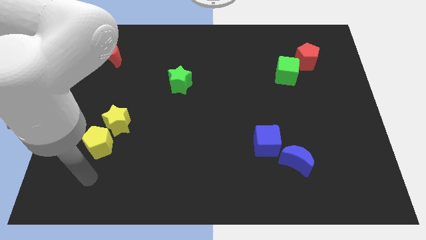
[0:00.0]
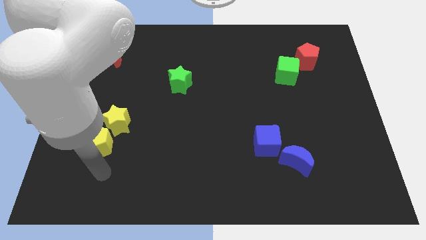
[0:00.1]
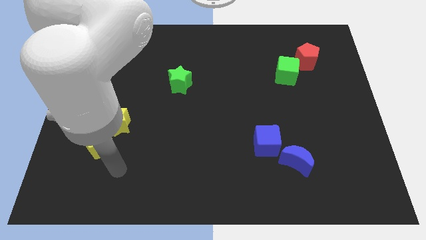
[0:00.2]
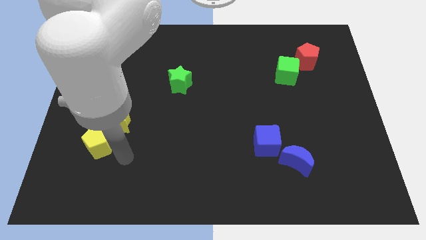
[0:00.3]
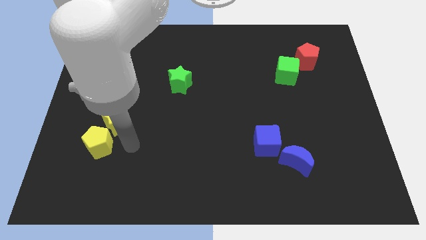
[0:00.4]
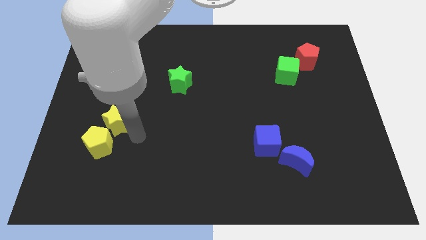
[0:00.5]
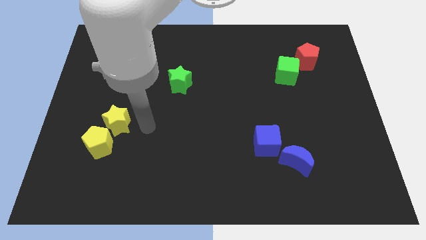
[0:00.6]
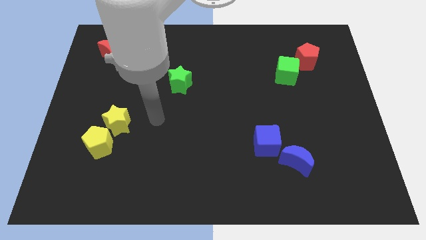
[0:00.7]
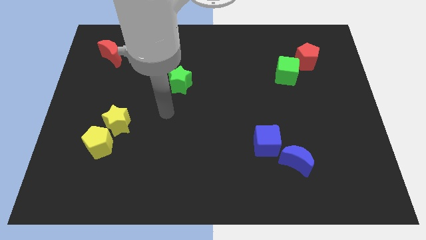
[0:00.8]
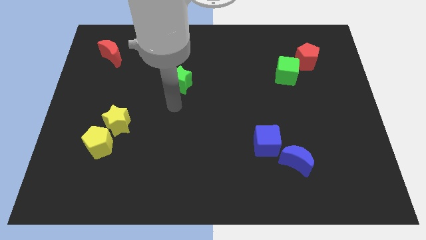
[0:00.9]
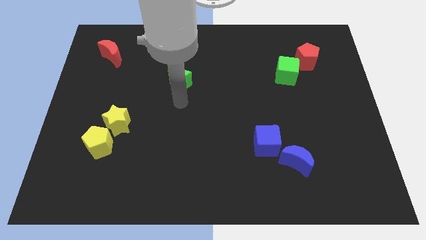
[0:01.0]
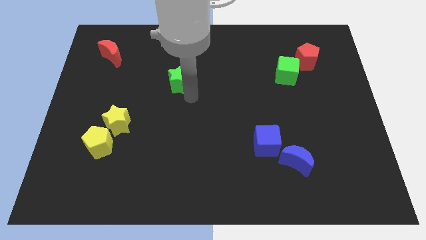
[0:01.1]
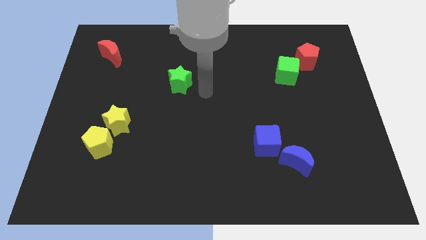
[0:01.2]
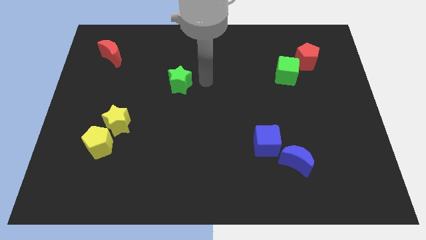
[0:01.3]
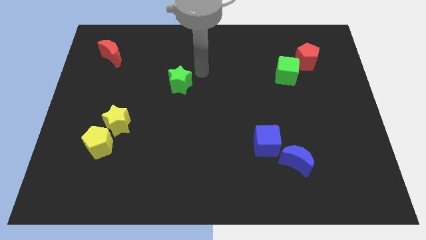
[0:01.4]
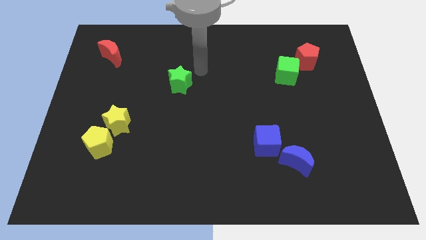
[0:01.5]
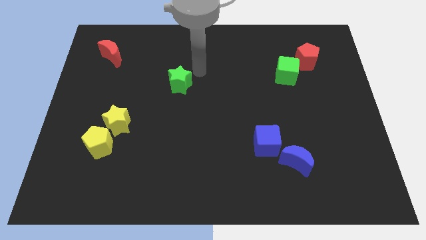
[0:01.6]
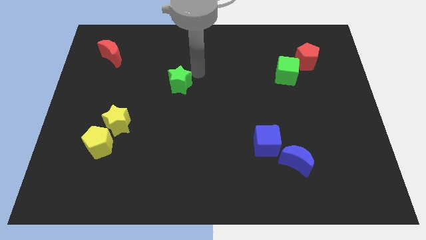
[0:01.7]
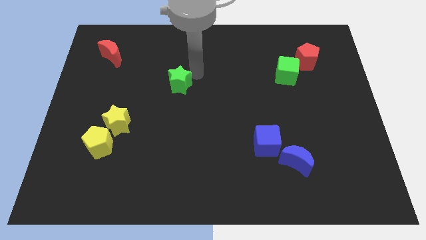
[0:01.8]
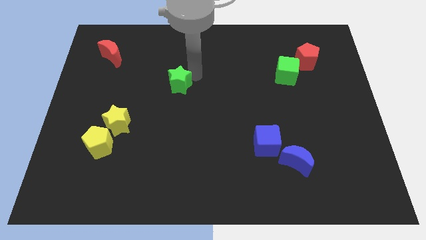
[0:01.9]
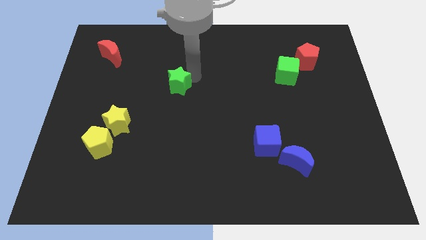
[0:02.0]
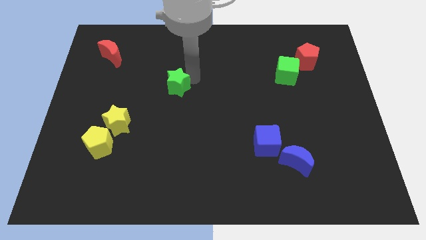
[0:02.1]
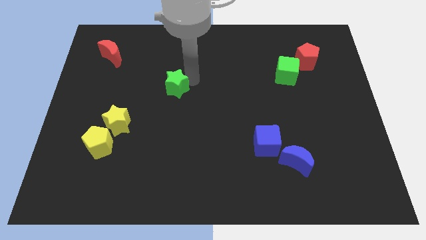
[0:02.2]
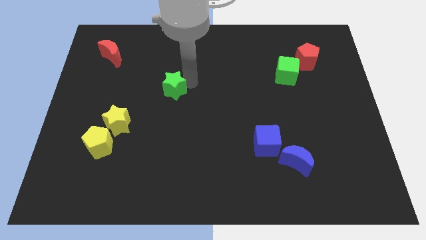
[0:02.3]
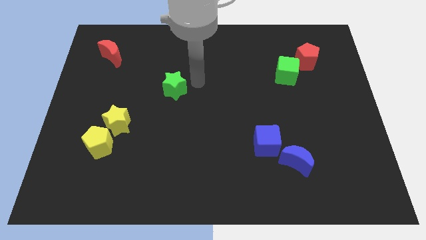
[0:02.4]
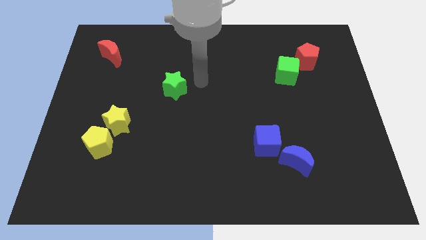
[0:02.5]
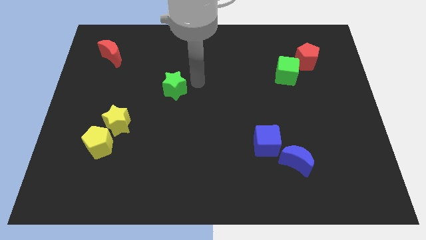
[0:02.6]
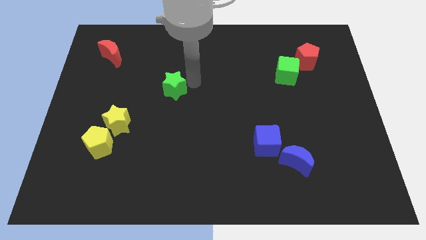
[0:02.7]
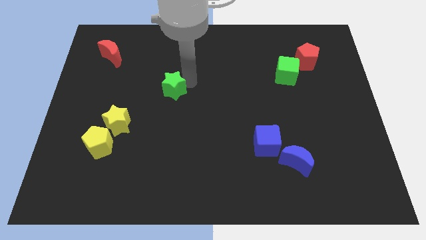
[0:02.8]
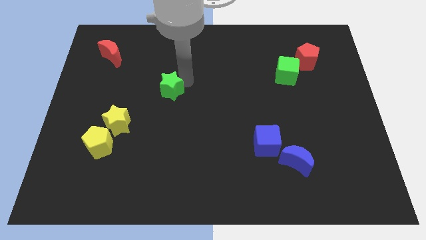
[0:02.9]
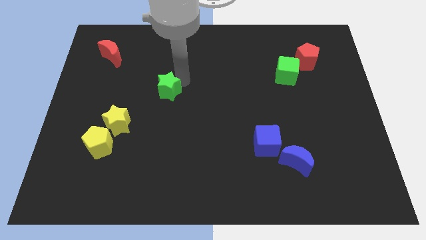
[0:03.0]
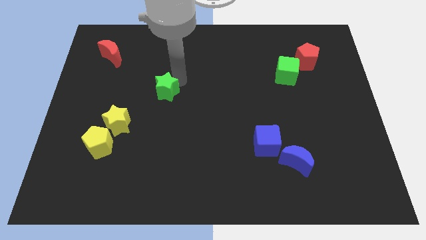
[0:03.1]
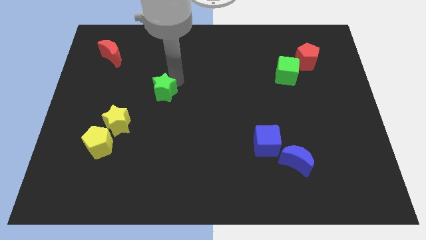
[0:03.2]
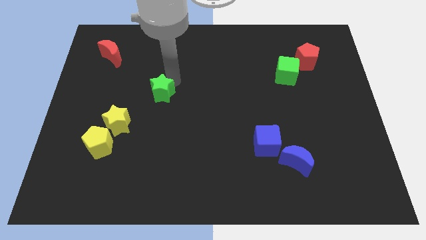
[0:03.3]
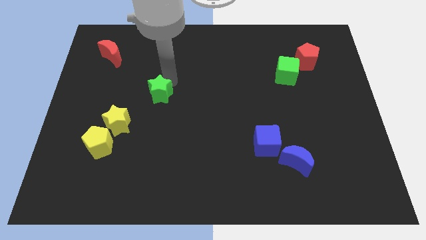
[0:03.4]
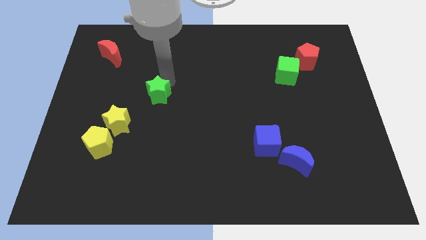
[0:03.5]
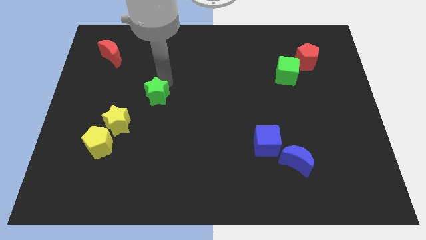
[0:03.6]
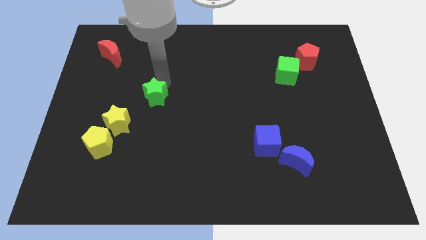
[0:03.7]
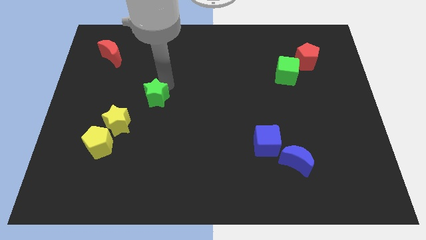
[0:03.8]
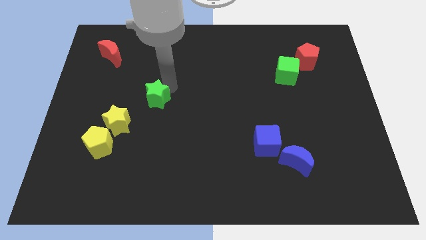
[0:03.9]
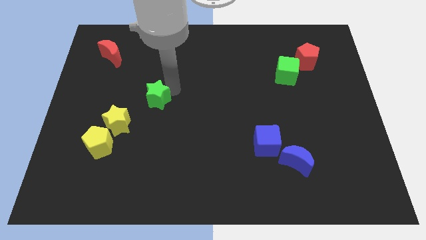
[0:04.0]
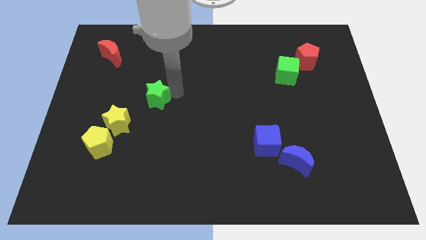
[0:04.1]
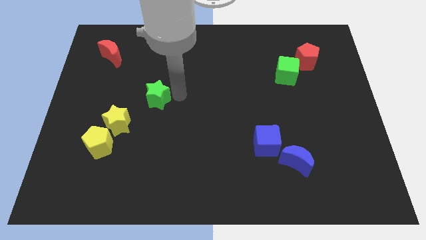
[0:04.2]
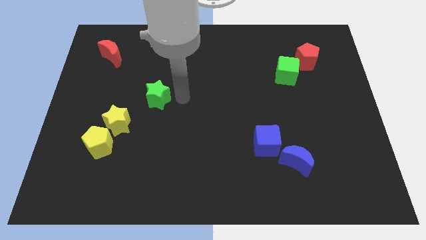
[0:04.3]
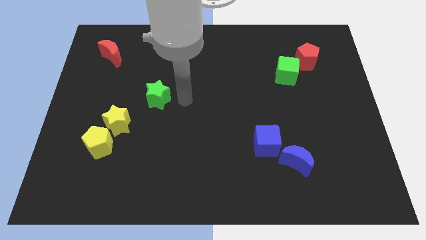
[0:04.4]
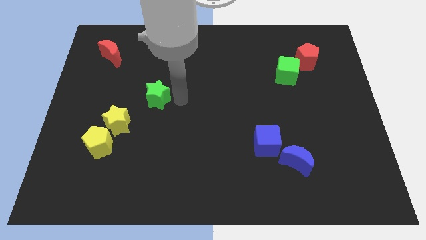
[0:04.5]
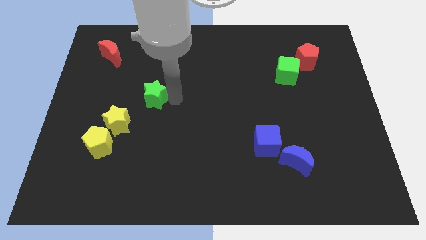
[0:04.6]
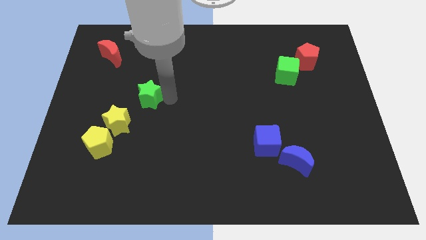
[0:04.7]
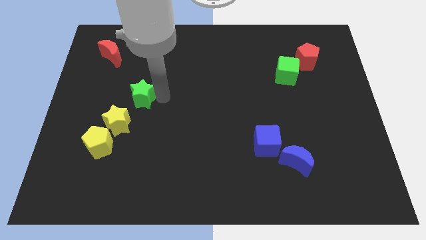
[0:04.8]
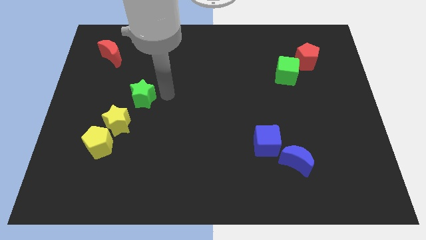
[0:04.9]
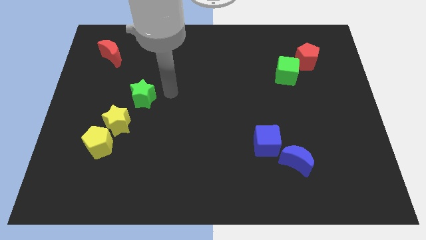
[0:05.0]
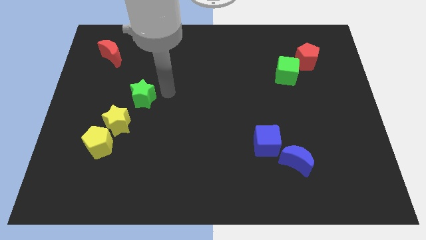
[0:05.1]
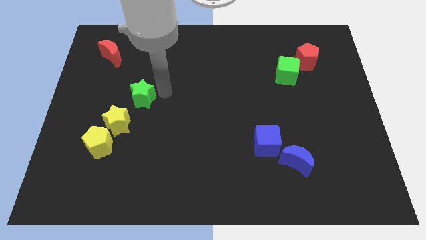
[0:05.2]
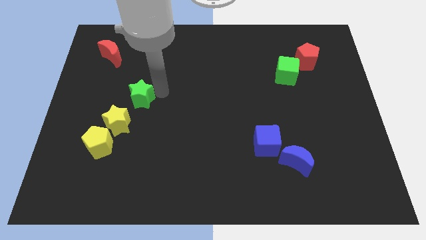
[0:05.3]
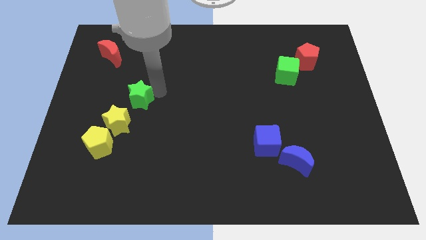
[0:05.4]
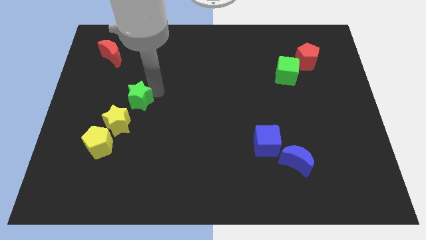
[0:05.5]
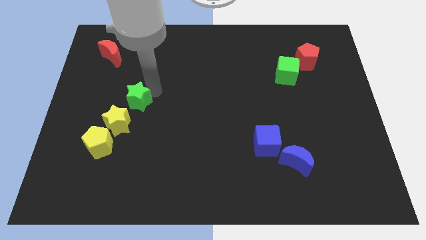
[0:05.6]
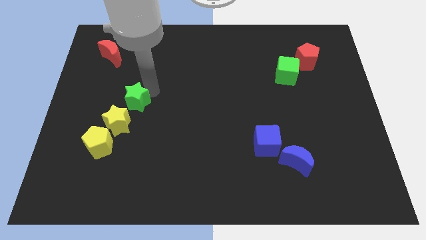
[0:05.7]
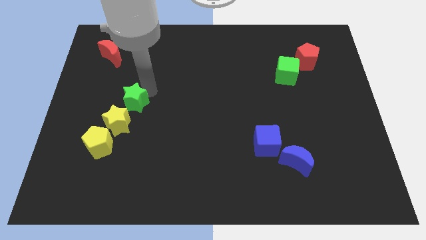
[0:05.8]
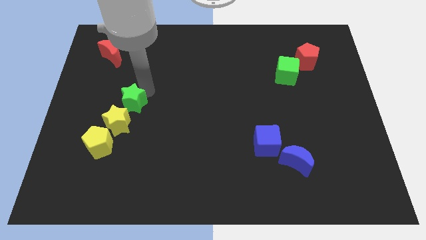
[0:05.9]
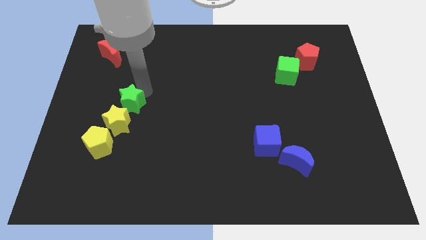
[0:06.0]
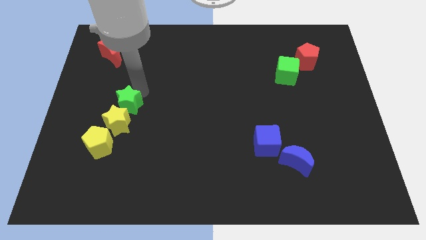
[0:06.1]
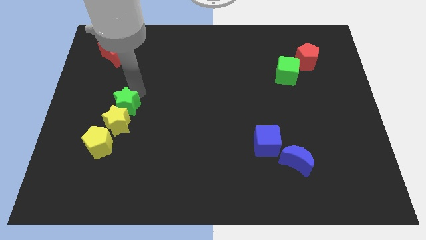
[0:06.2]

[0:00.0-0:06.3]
put the green star to the top left side of the yellow star

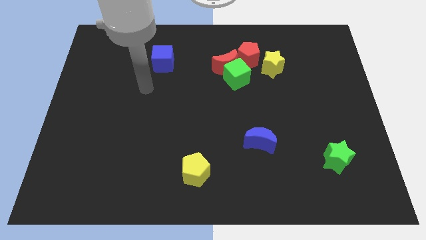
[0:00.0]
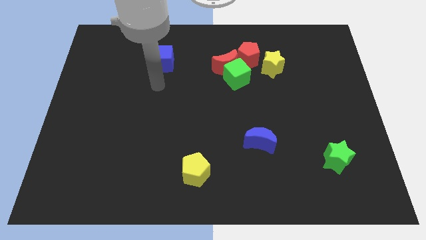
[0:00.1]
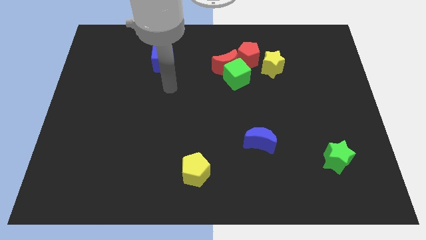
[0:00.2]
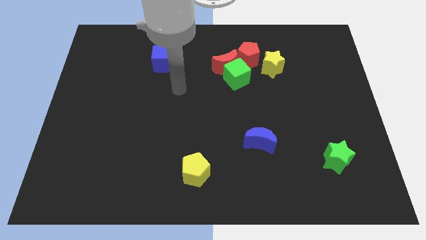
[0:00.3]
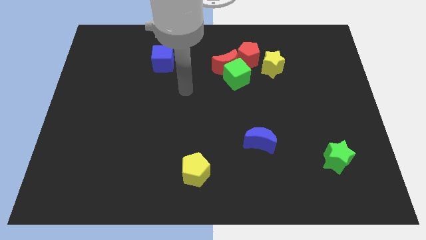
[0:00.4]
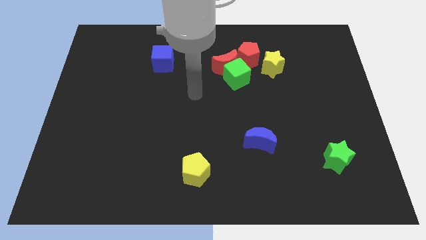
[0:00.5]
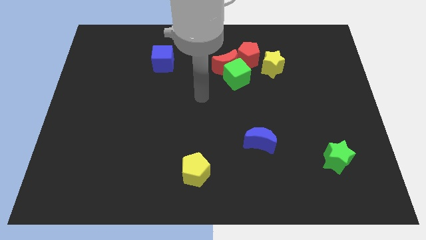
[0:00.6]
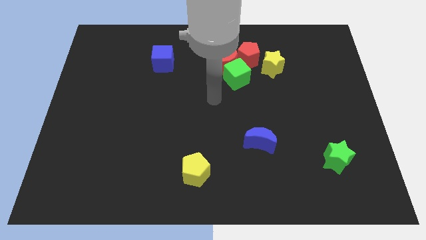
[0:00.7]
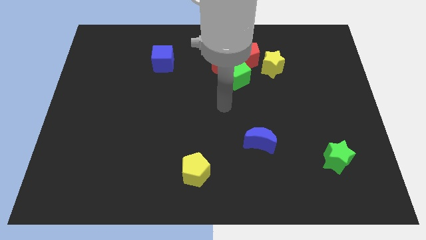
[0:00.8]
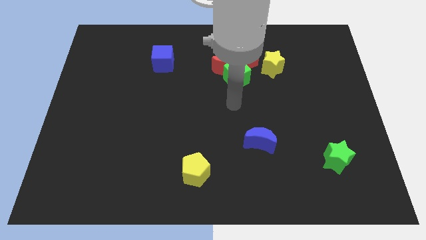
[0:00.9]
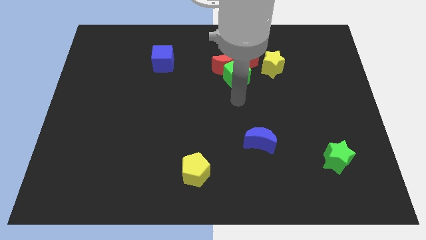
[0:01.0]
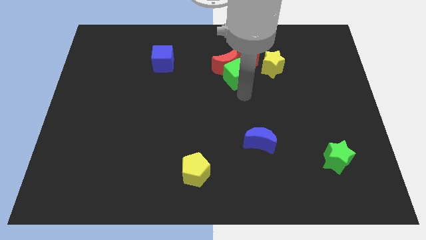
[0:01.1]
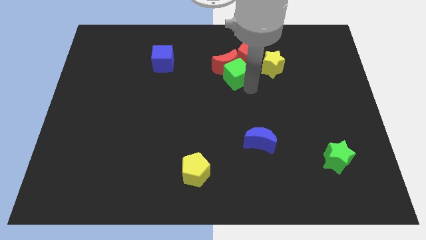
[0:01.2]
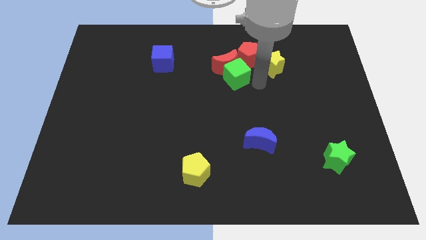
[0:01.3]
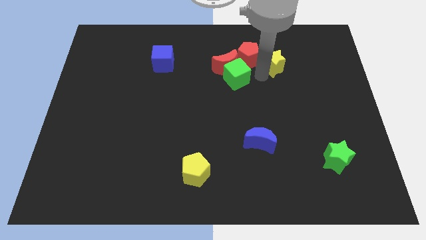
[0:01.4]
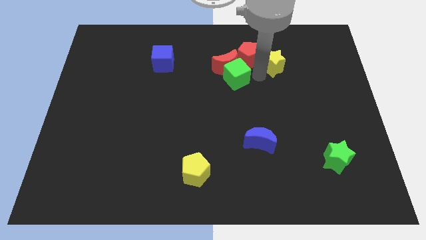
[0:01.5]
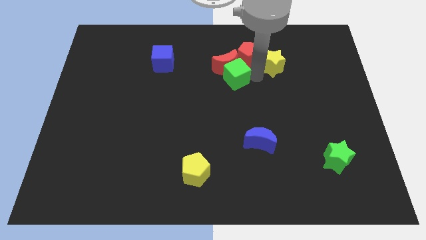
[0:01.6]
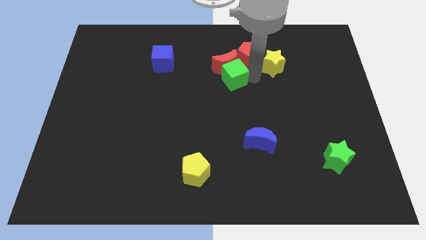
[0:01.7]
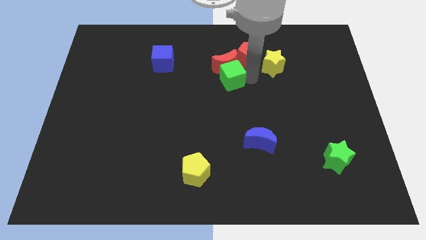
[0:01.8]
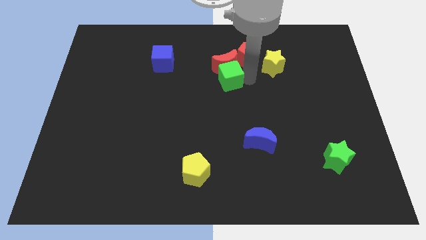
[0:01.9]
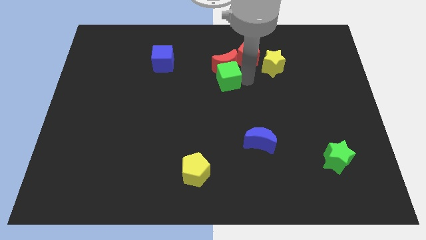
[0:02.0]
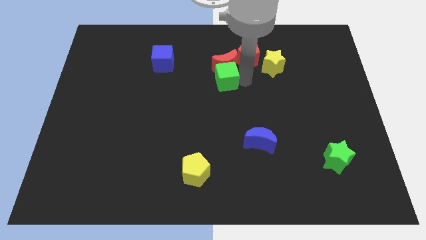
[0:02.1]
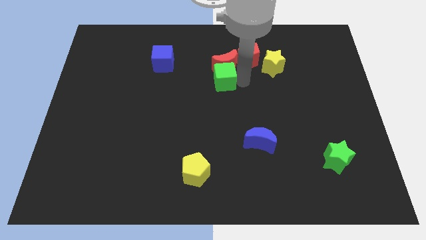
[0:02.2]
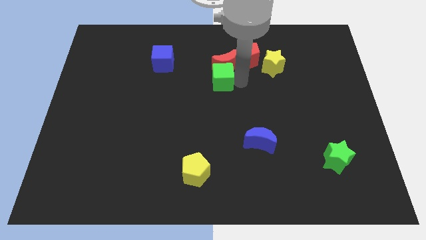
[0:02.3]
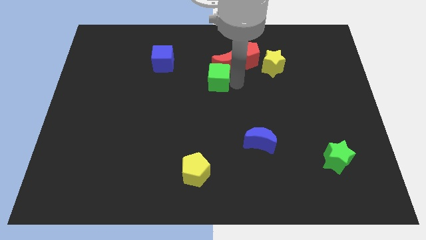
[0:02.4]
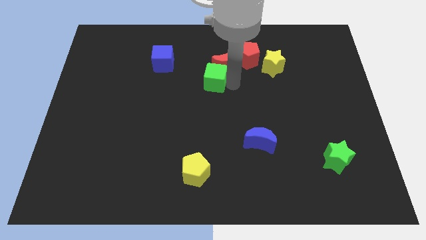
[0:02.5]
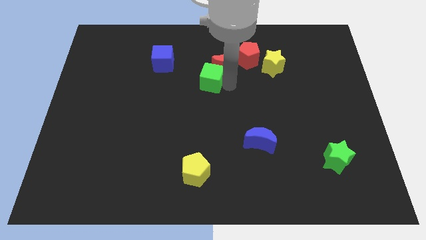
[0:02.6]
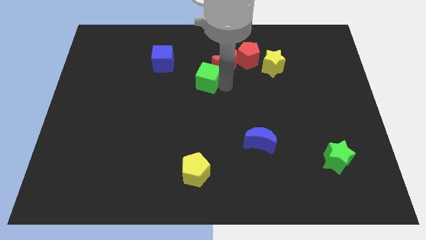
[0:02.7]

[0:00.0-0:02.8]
slide the green cube to the left of the red moon
